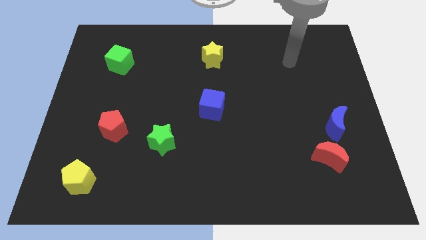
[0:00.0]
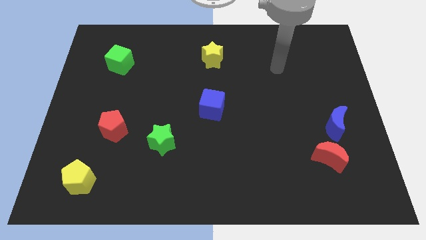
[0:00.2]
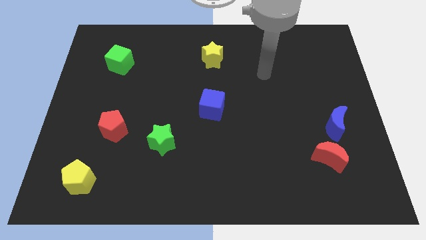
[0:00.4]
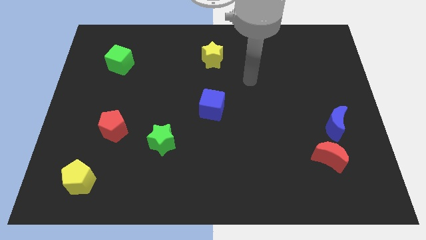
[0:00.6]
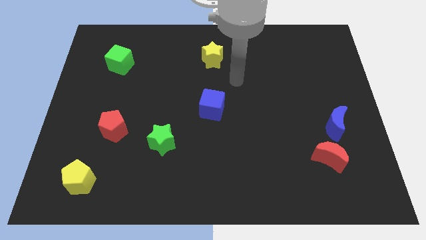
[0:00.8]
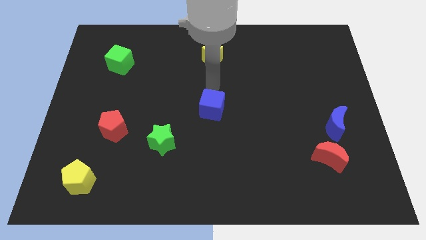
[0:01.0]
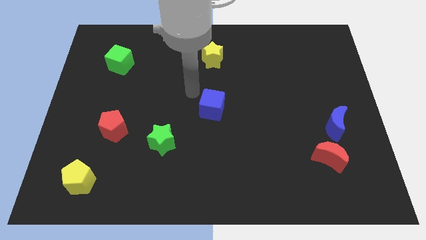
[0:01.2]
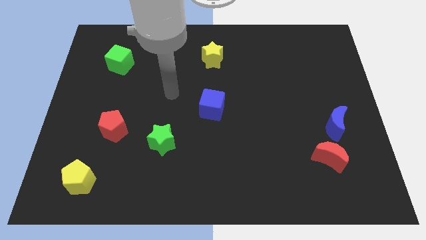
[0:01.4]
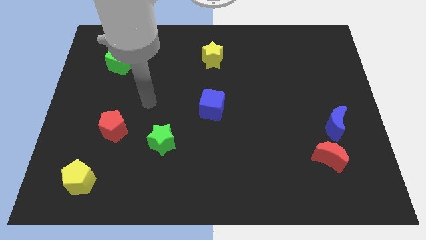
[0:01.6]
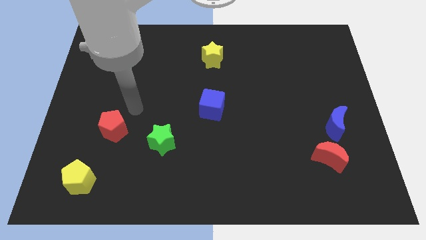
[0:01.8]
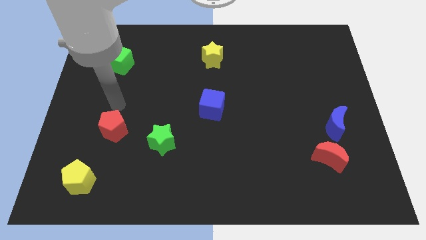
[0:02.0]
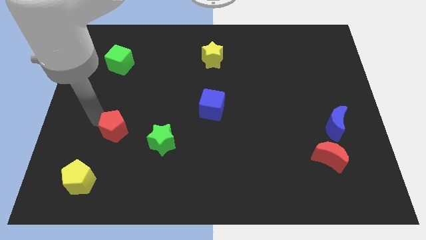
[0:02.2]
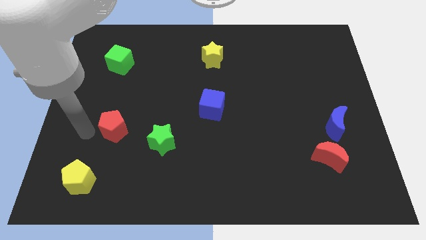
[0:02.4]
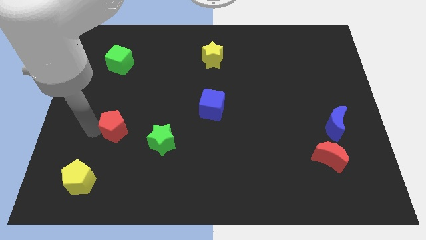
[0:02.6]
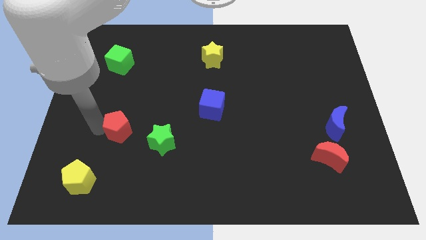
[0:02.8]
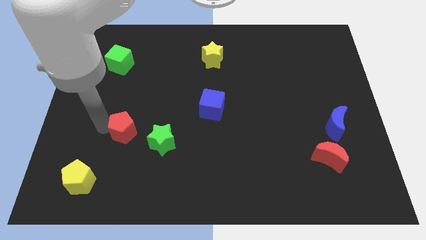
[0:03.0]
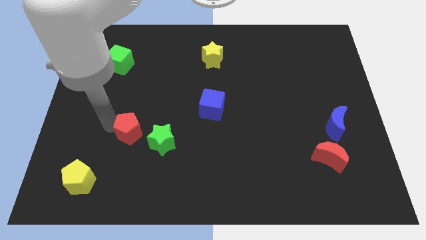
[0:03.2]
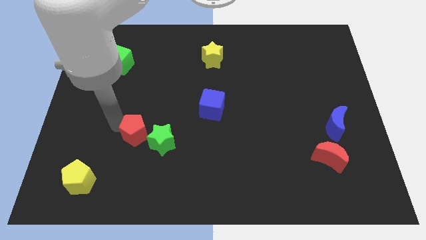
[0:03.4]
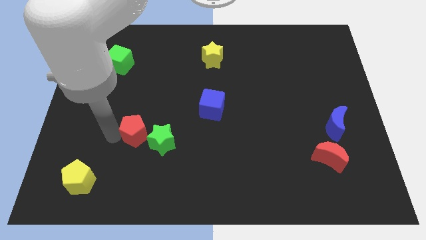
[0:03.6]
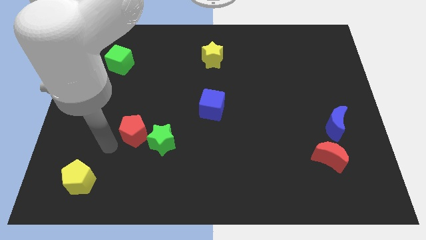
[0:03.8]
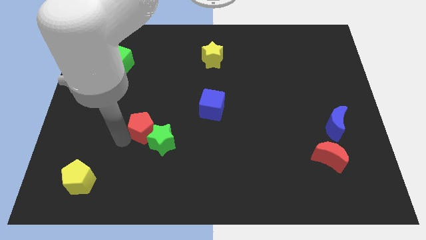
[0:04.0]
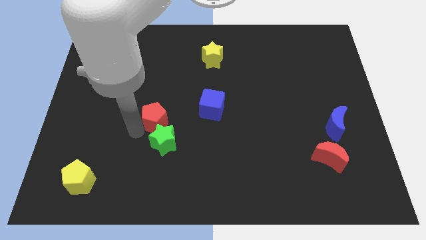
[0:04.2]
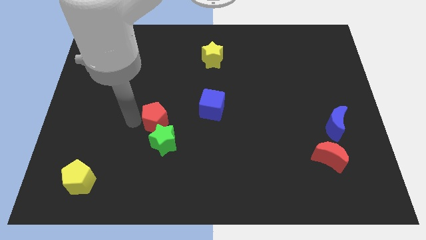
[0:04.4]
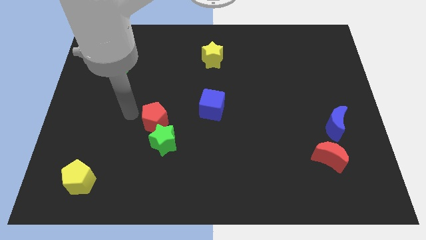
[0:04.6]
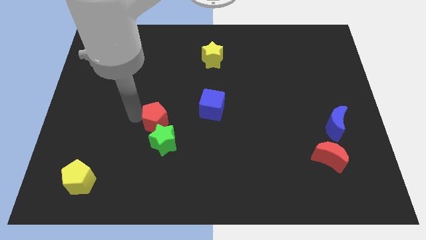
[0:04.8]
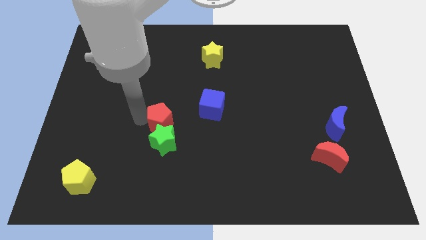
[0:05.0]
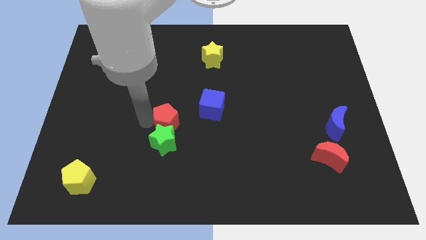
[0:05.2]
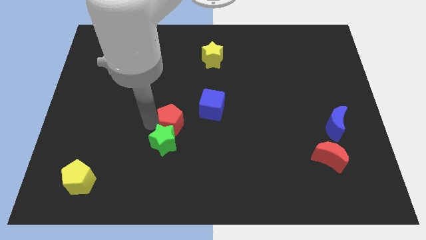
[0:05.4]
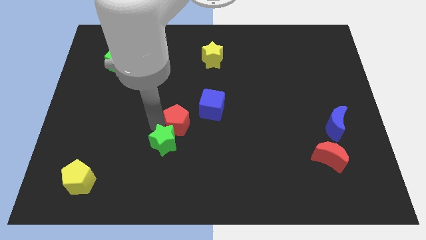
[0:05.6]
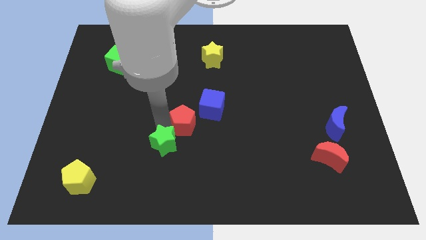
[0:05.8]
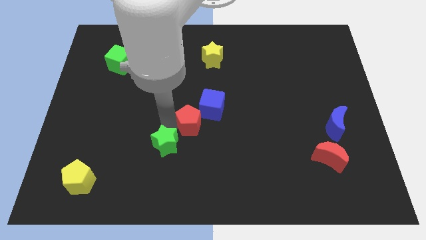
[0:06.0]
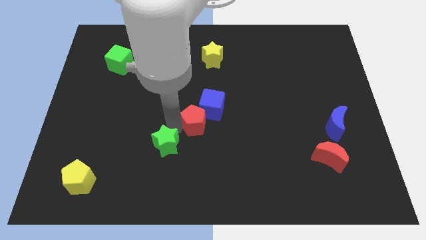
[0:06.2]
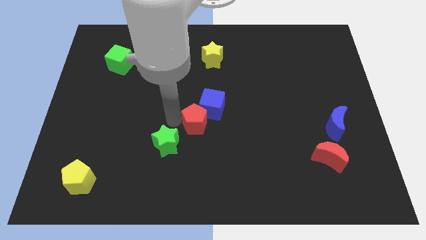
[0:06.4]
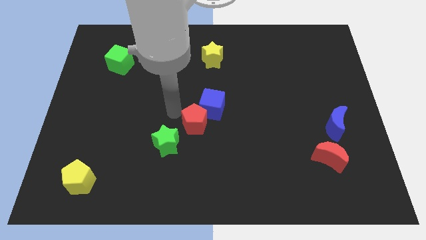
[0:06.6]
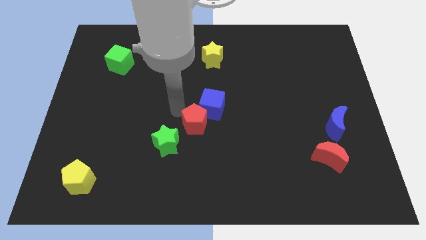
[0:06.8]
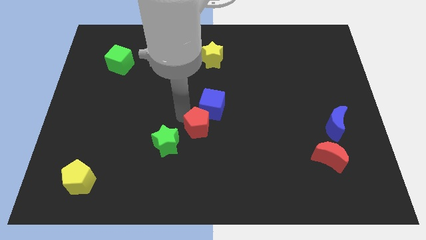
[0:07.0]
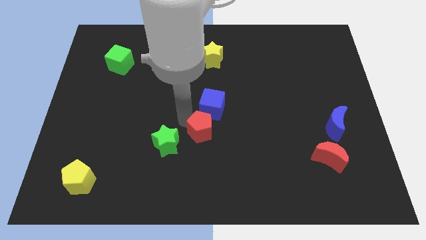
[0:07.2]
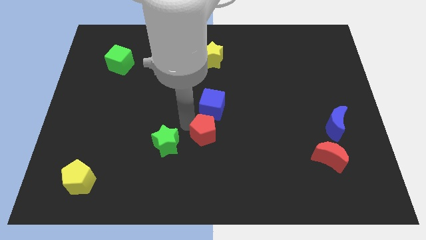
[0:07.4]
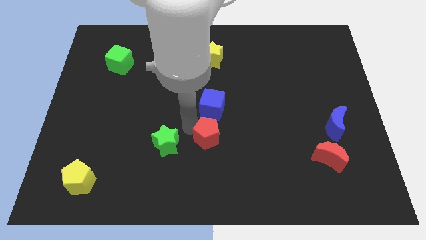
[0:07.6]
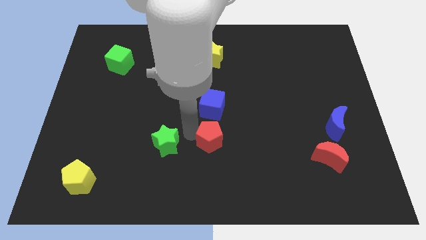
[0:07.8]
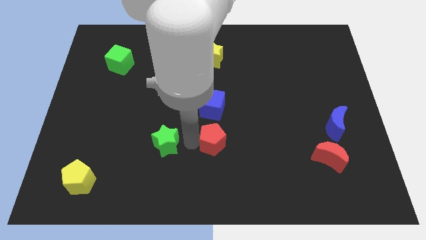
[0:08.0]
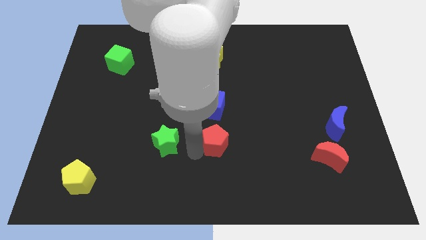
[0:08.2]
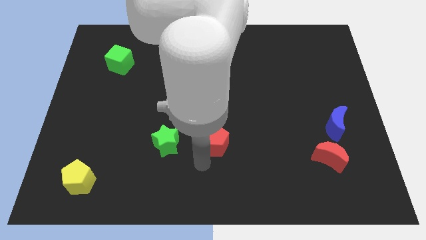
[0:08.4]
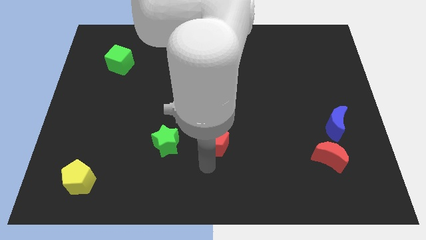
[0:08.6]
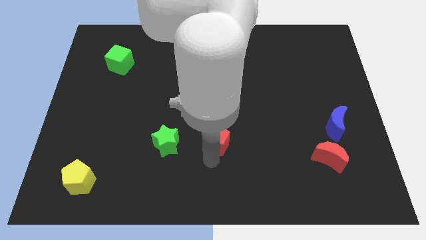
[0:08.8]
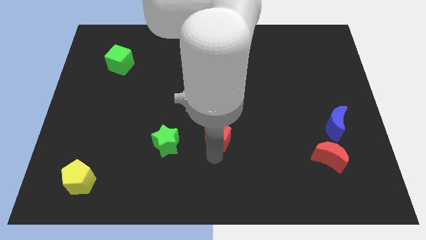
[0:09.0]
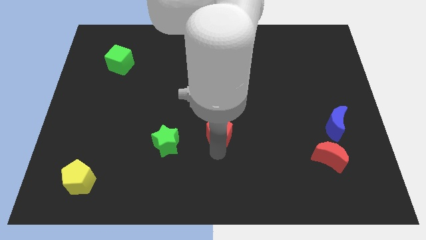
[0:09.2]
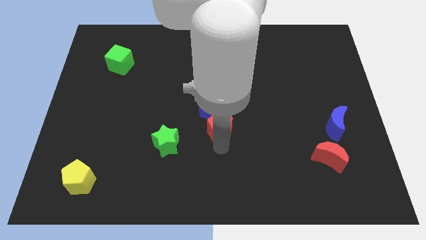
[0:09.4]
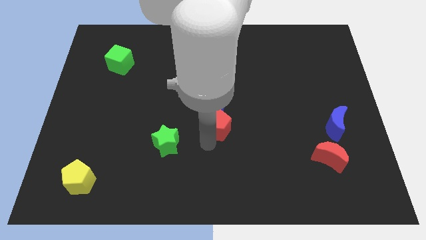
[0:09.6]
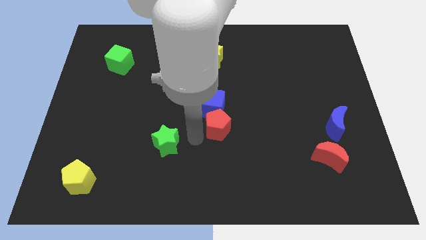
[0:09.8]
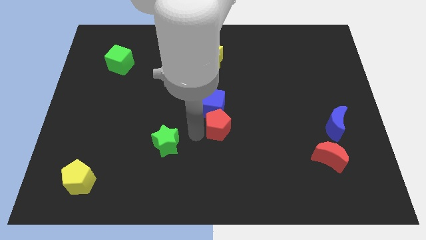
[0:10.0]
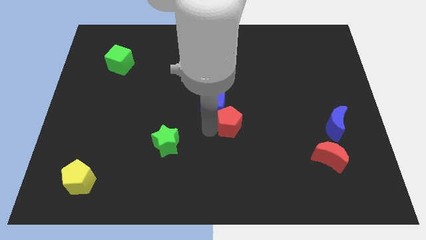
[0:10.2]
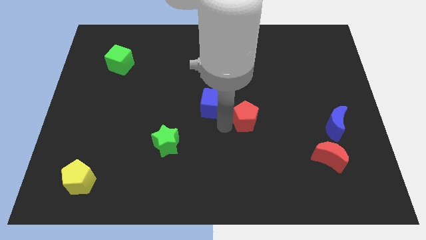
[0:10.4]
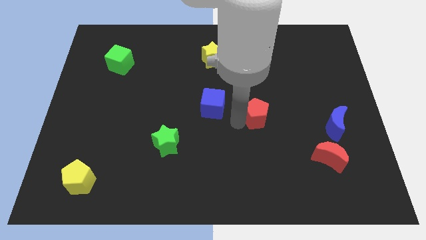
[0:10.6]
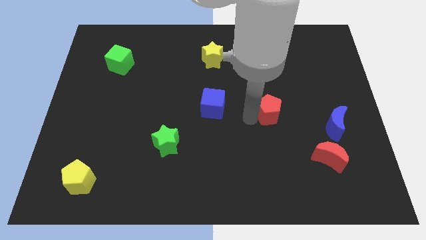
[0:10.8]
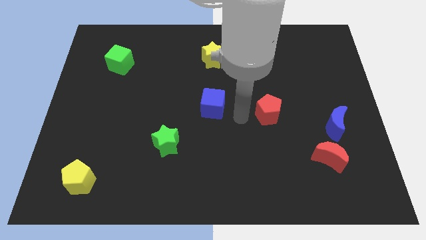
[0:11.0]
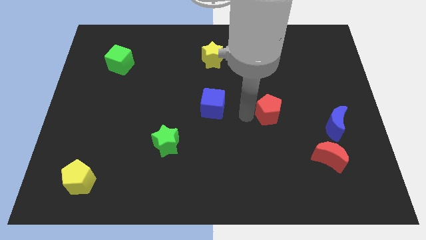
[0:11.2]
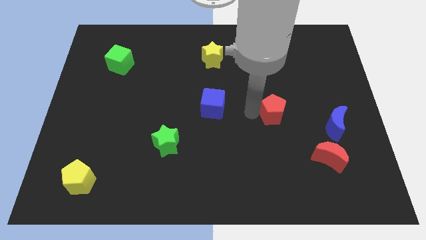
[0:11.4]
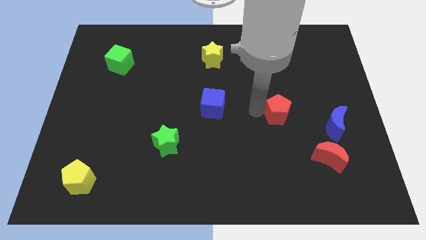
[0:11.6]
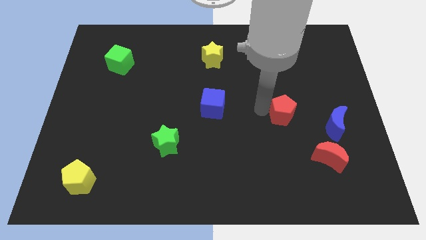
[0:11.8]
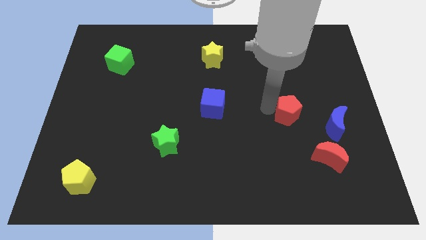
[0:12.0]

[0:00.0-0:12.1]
slide the red pentagon to the top left side of the blue moon

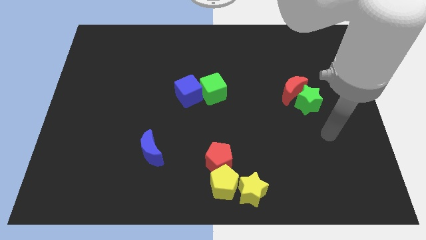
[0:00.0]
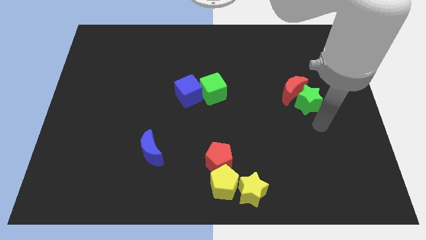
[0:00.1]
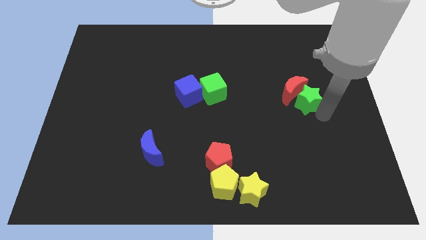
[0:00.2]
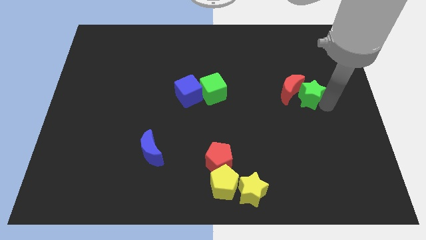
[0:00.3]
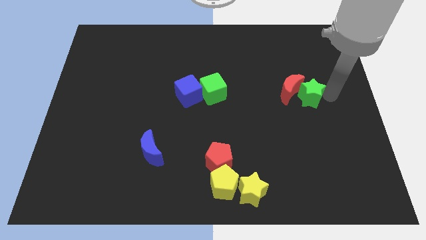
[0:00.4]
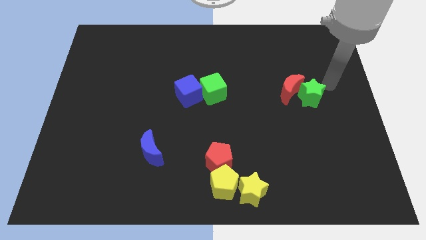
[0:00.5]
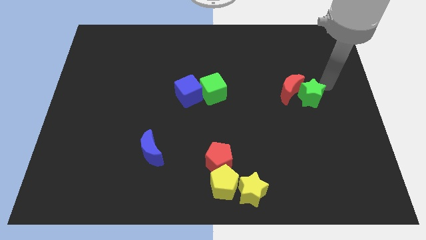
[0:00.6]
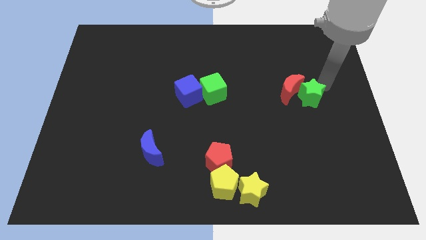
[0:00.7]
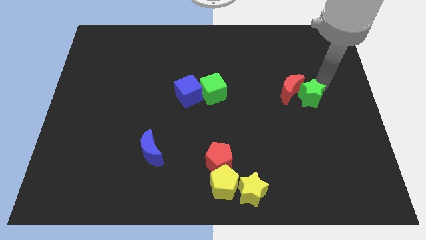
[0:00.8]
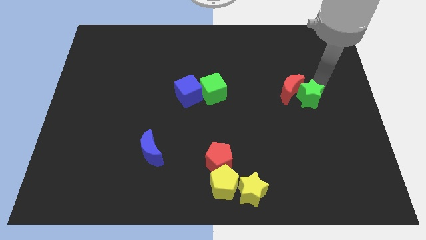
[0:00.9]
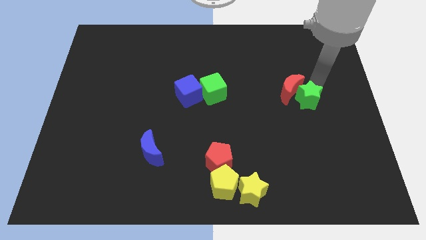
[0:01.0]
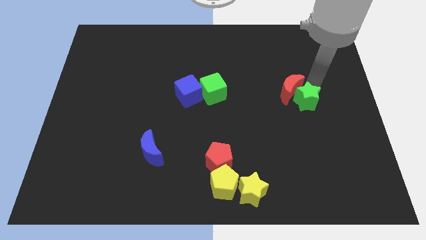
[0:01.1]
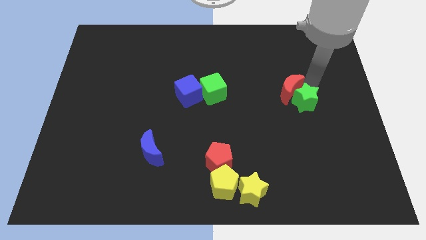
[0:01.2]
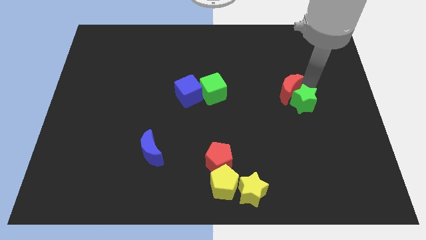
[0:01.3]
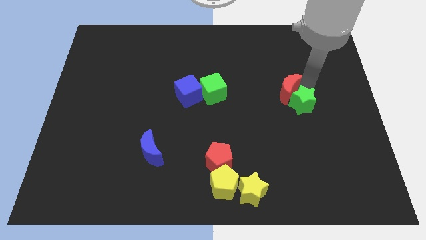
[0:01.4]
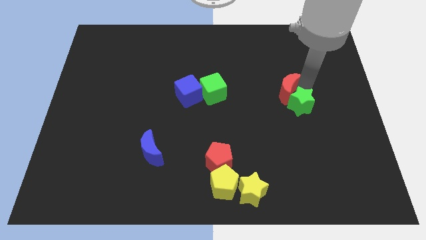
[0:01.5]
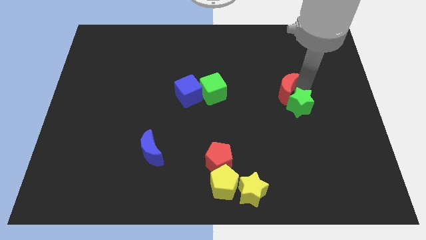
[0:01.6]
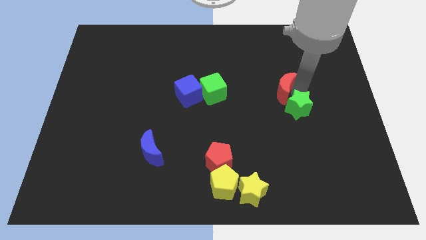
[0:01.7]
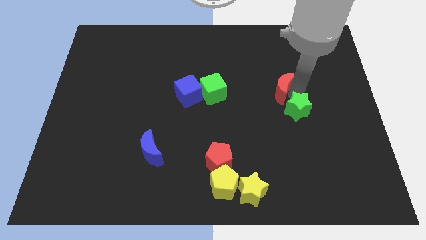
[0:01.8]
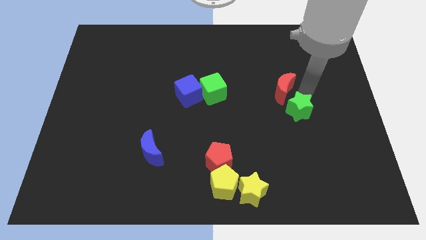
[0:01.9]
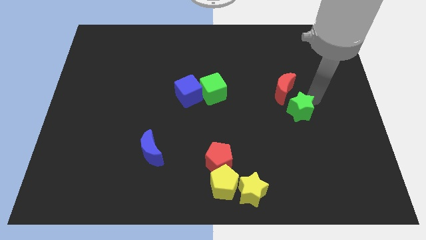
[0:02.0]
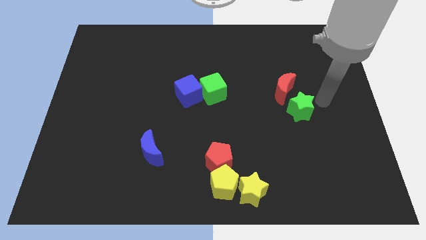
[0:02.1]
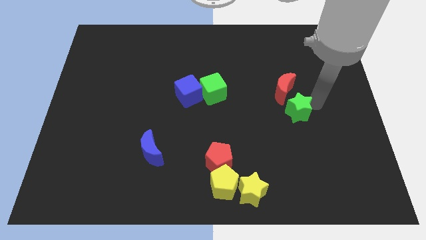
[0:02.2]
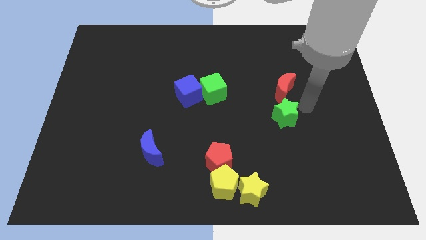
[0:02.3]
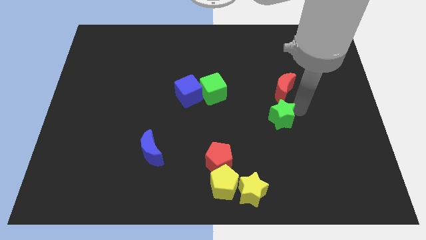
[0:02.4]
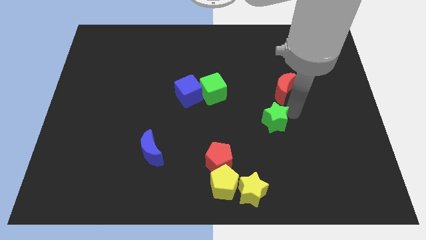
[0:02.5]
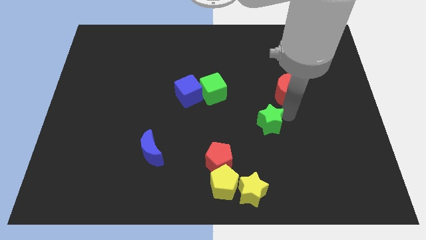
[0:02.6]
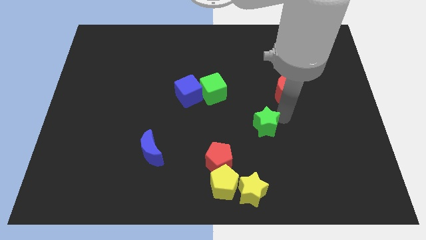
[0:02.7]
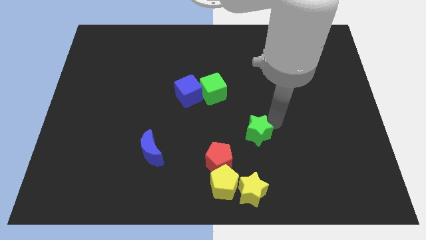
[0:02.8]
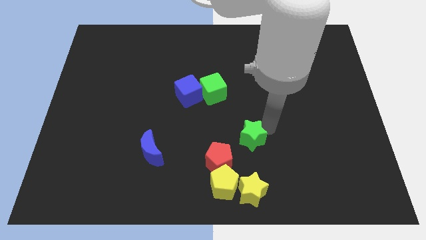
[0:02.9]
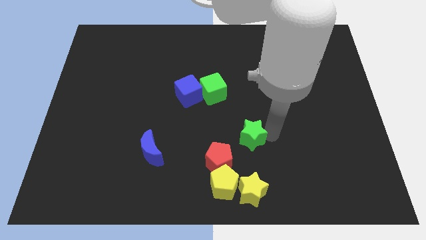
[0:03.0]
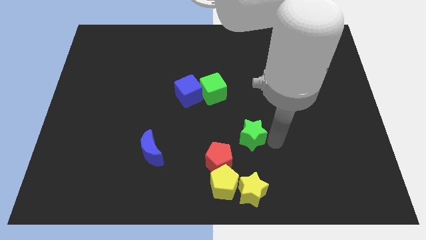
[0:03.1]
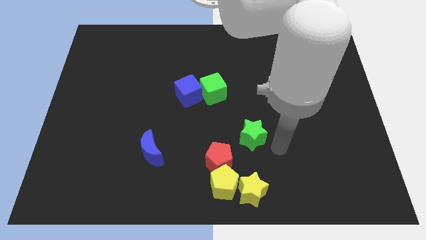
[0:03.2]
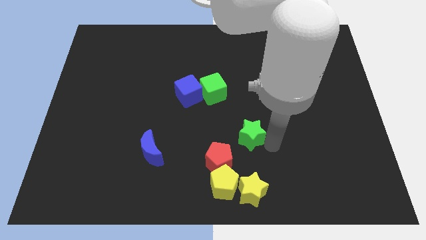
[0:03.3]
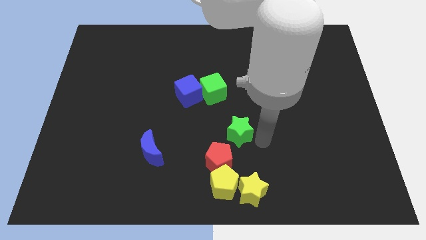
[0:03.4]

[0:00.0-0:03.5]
put the green star to the top side of the red pentagon
